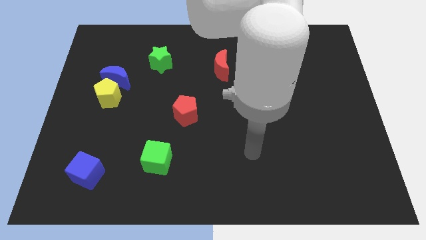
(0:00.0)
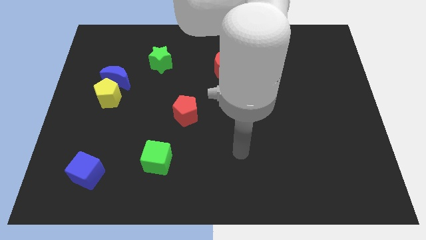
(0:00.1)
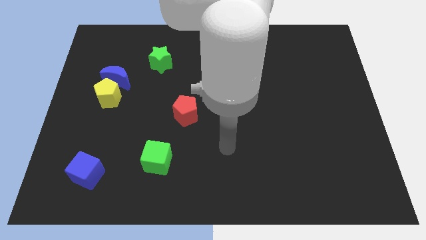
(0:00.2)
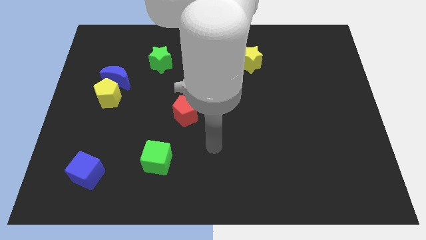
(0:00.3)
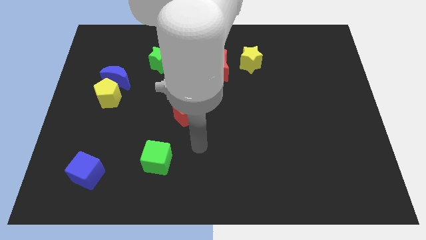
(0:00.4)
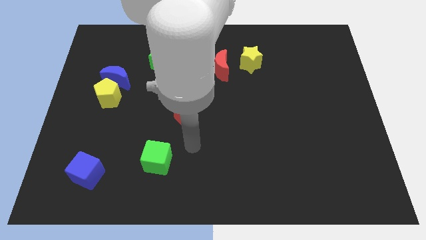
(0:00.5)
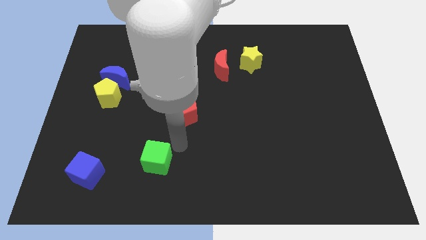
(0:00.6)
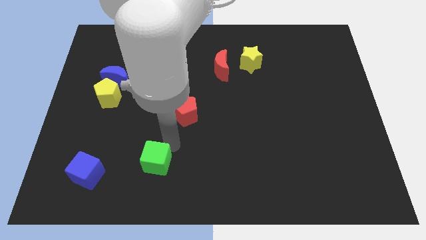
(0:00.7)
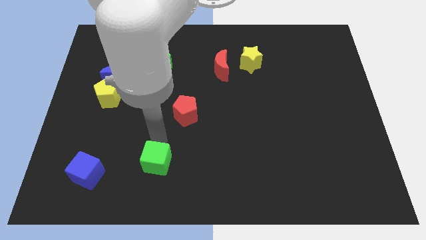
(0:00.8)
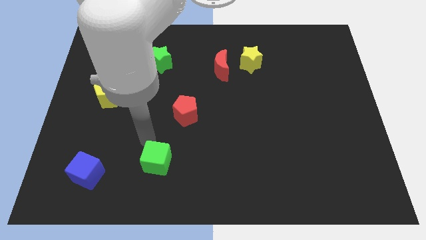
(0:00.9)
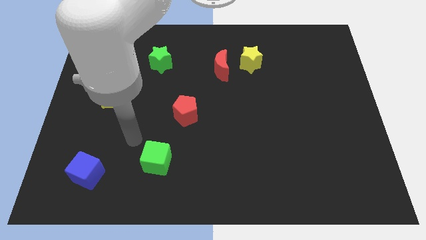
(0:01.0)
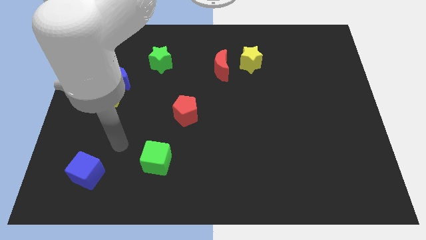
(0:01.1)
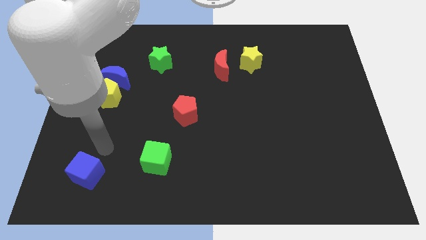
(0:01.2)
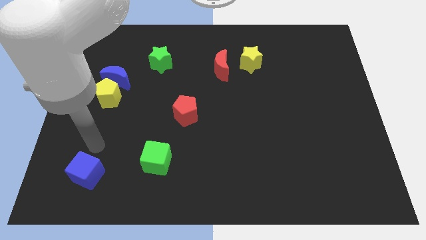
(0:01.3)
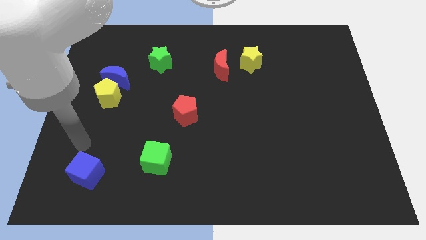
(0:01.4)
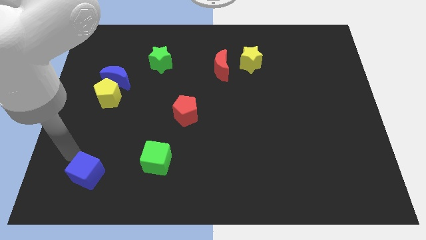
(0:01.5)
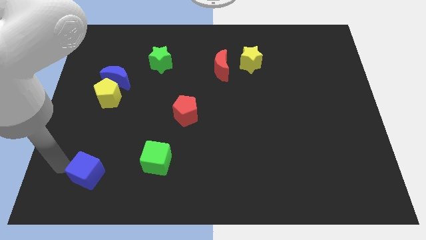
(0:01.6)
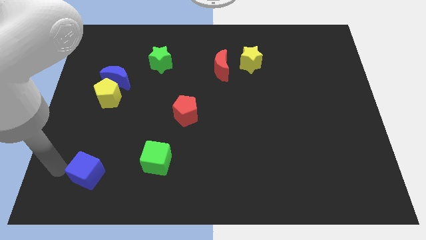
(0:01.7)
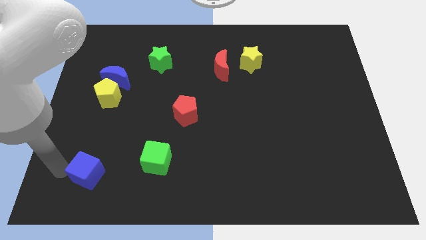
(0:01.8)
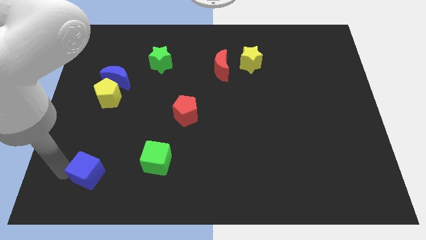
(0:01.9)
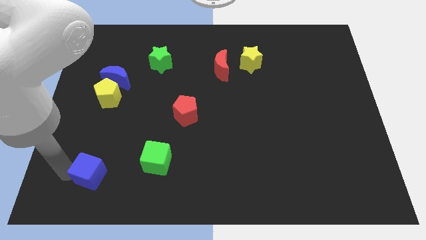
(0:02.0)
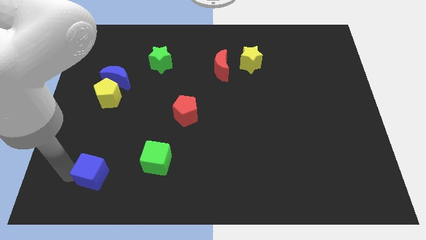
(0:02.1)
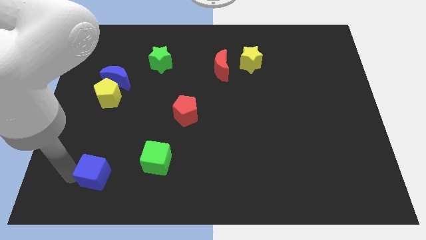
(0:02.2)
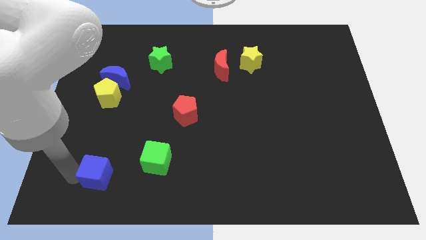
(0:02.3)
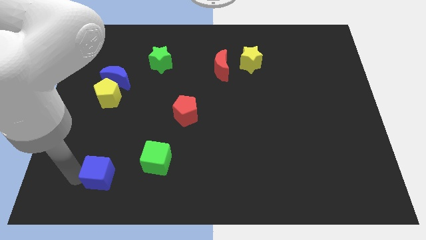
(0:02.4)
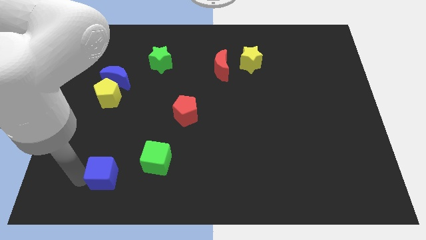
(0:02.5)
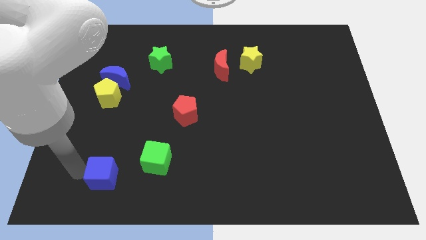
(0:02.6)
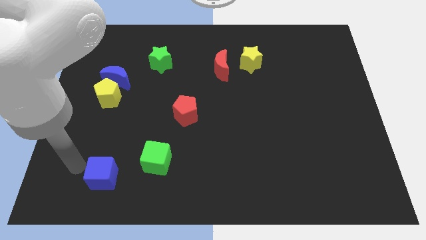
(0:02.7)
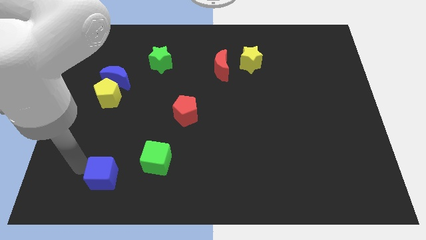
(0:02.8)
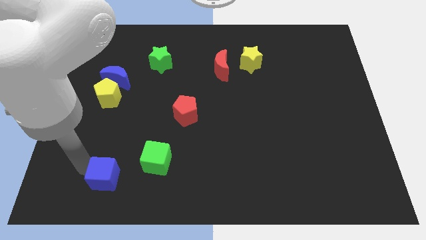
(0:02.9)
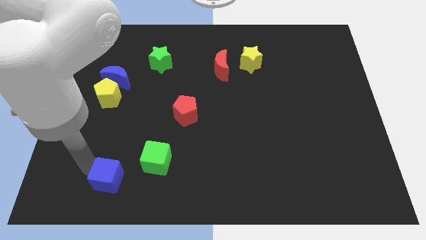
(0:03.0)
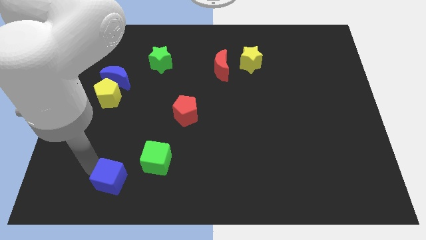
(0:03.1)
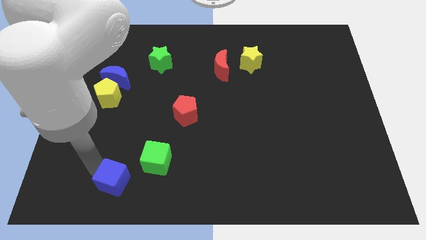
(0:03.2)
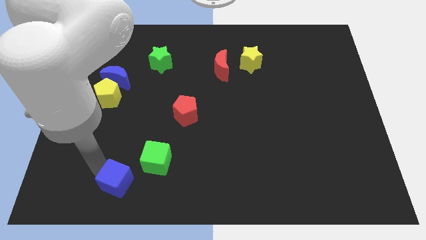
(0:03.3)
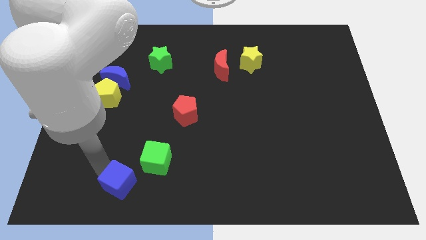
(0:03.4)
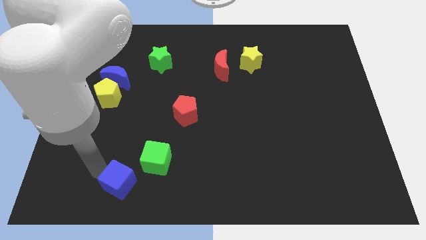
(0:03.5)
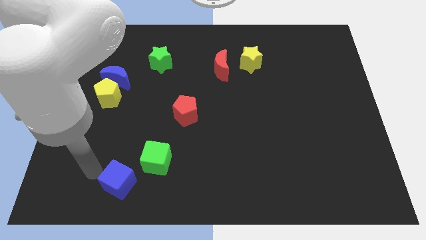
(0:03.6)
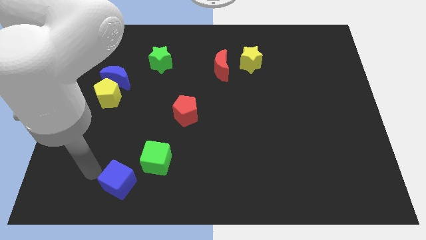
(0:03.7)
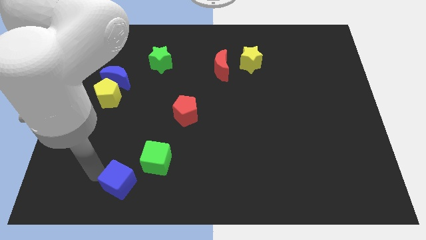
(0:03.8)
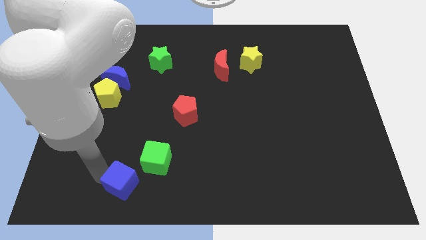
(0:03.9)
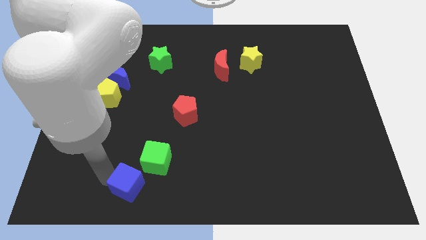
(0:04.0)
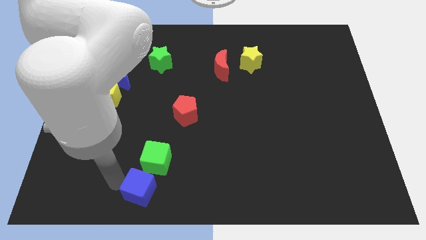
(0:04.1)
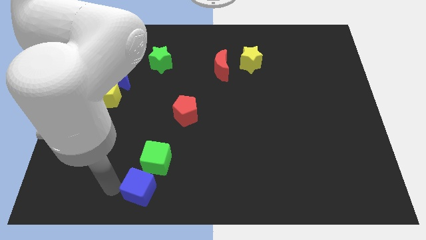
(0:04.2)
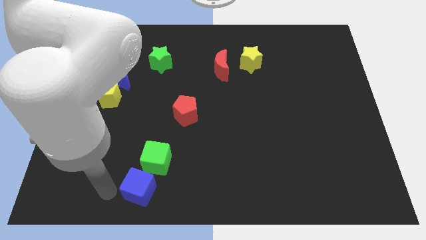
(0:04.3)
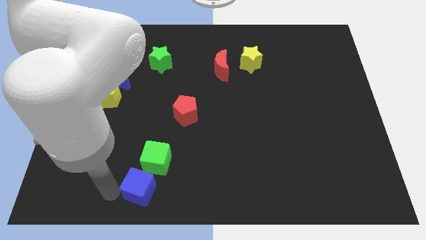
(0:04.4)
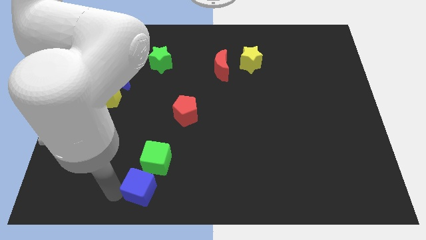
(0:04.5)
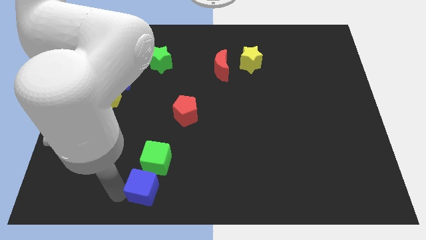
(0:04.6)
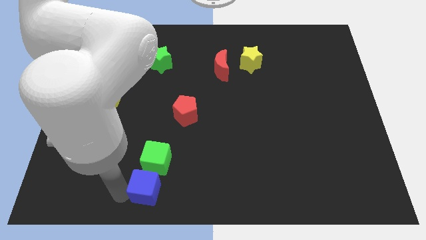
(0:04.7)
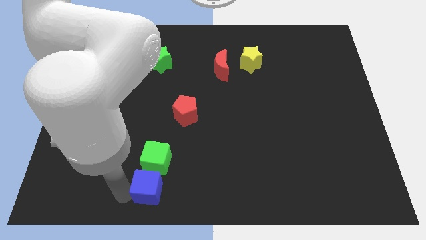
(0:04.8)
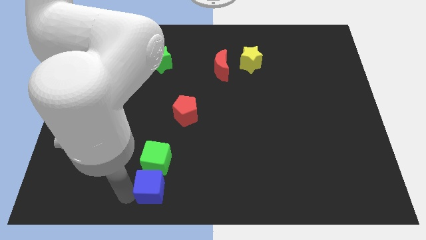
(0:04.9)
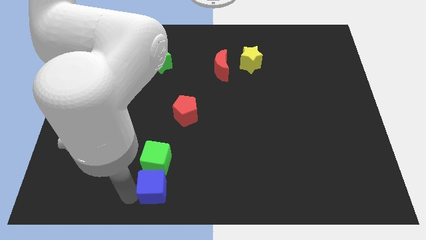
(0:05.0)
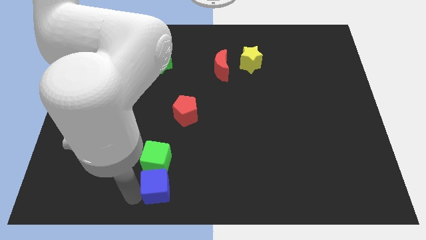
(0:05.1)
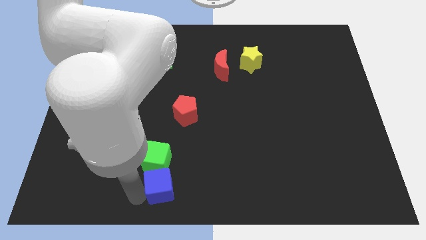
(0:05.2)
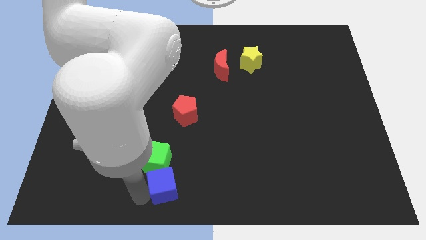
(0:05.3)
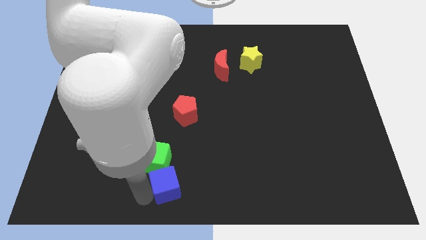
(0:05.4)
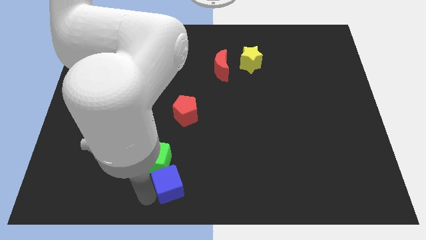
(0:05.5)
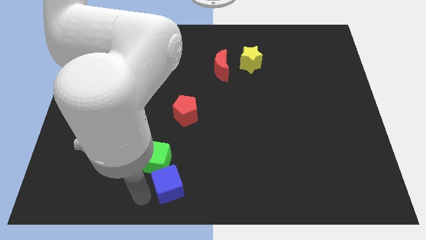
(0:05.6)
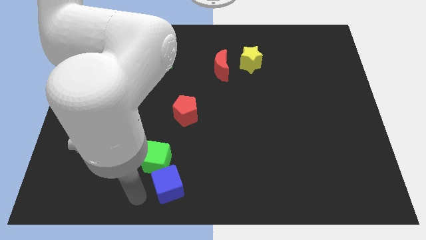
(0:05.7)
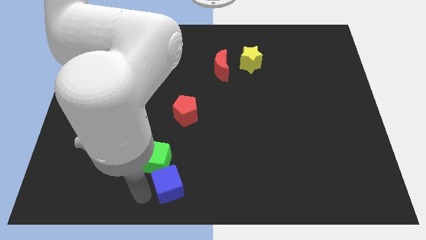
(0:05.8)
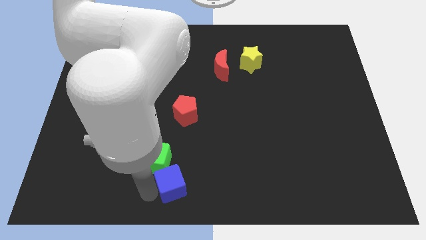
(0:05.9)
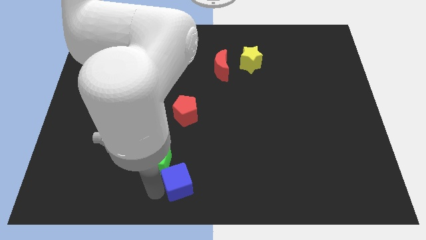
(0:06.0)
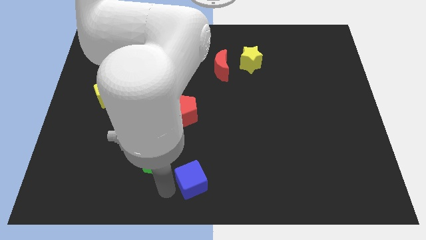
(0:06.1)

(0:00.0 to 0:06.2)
push the blue cube right of the green cube

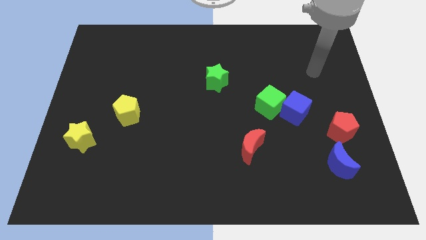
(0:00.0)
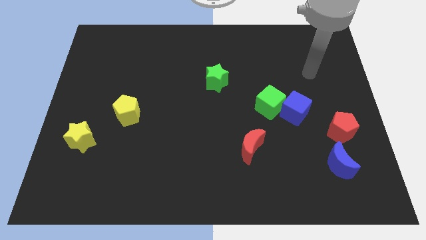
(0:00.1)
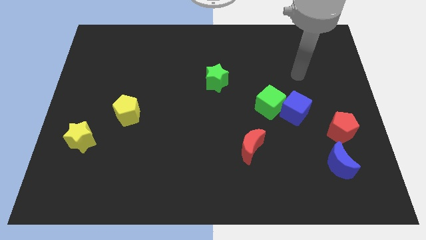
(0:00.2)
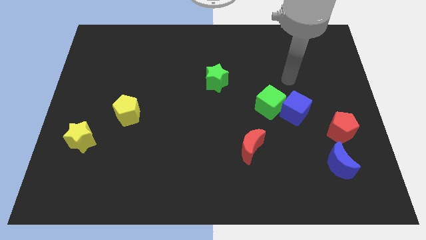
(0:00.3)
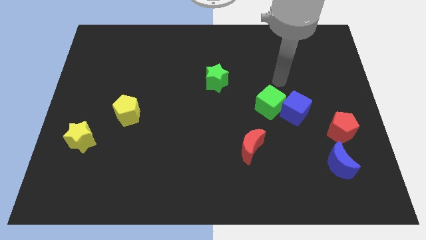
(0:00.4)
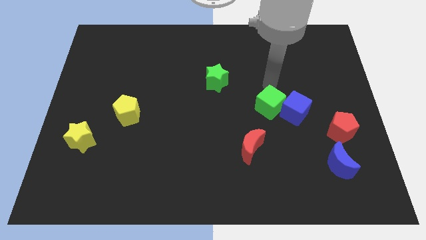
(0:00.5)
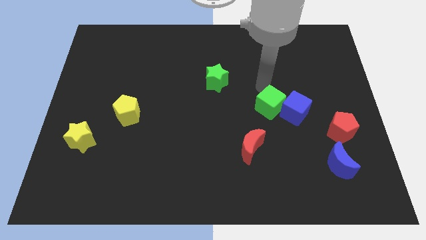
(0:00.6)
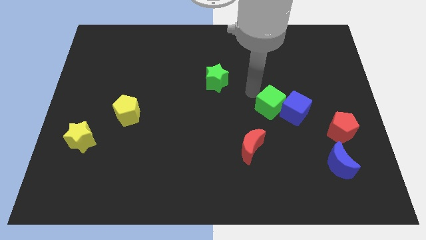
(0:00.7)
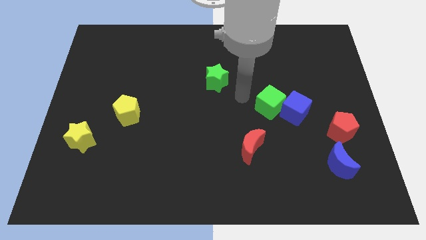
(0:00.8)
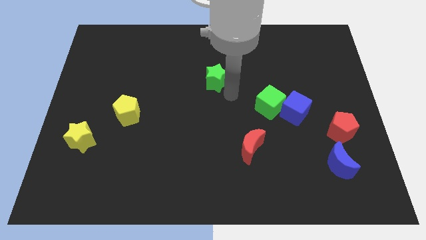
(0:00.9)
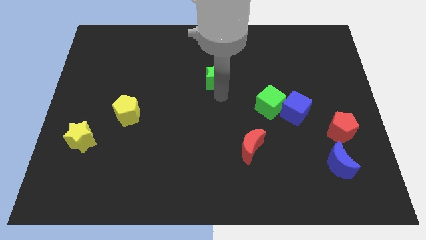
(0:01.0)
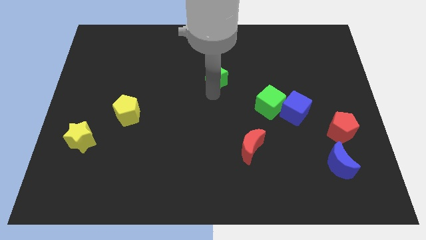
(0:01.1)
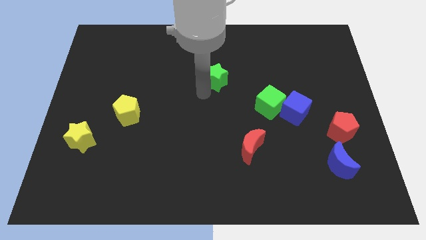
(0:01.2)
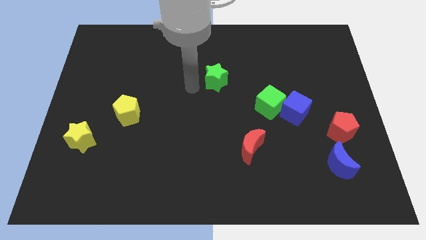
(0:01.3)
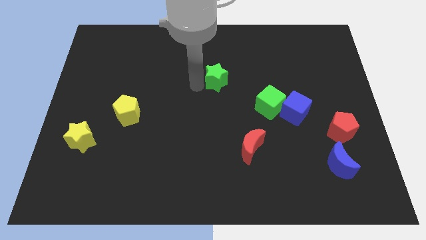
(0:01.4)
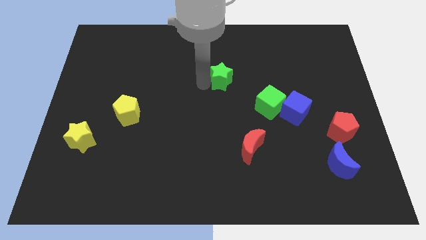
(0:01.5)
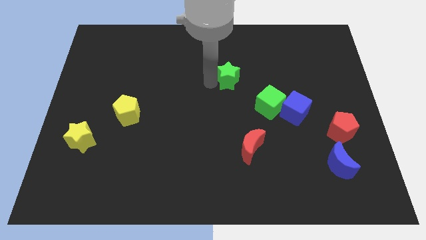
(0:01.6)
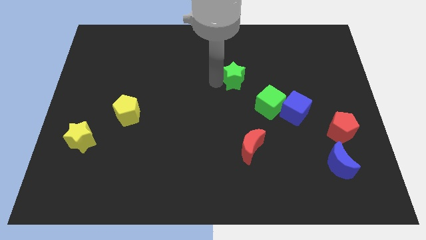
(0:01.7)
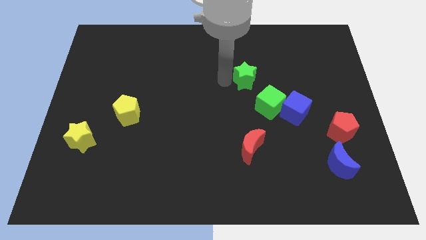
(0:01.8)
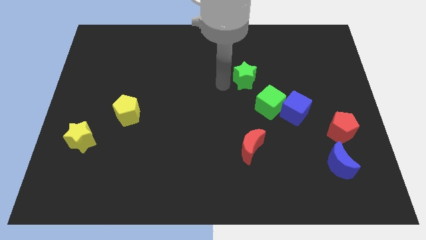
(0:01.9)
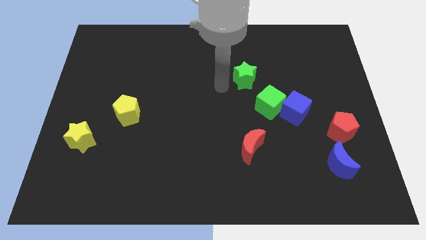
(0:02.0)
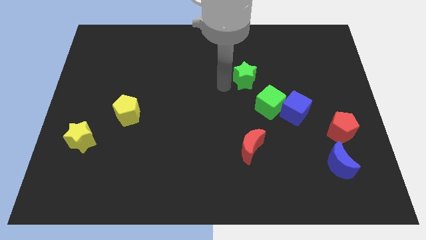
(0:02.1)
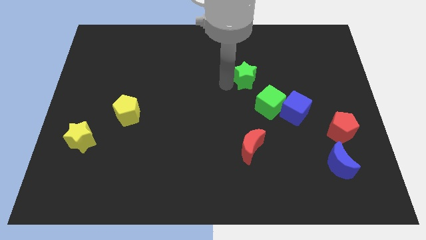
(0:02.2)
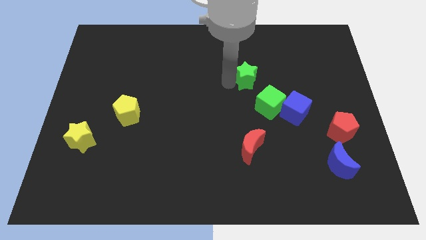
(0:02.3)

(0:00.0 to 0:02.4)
slide the green star above the green cube
